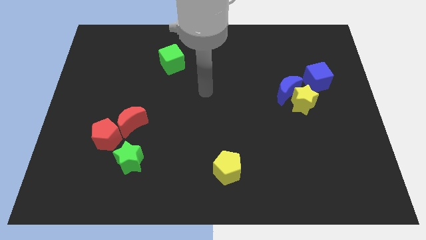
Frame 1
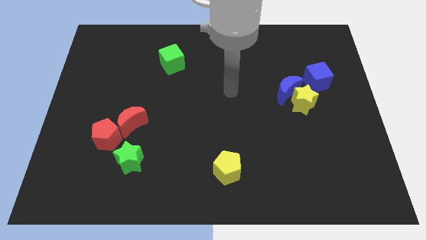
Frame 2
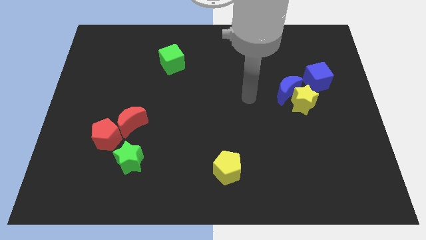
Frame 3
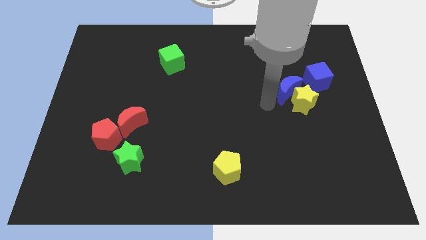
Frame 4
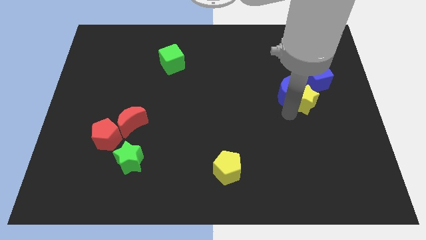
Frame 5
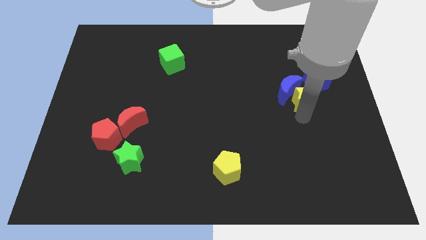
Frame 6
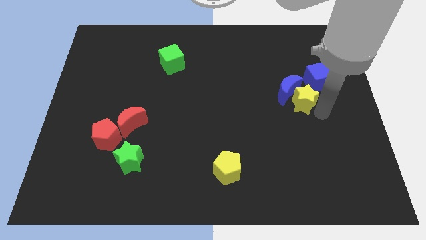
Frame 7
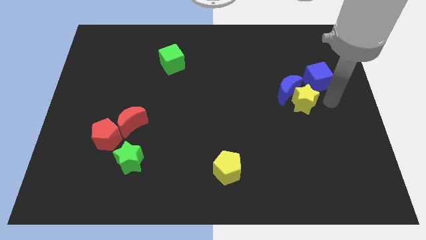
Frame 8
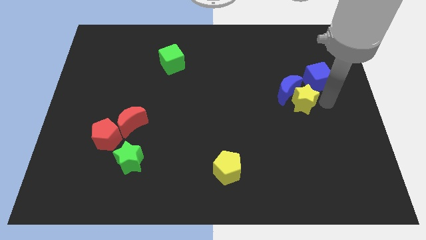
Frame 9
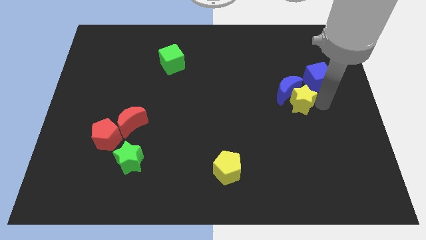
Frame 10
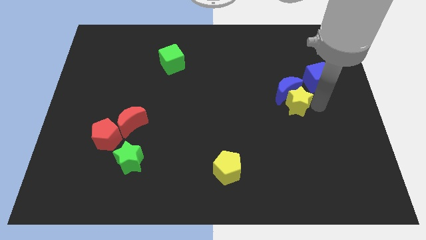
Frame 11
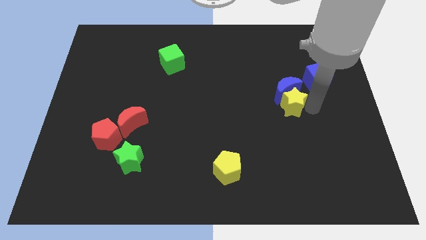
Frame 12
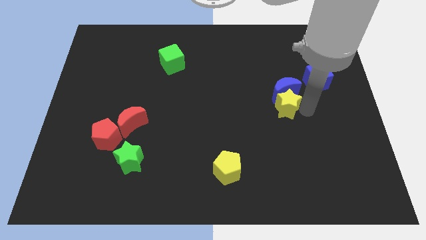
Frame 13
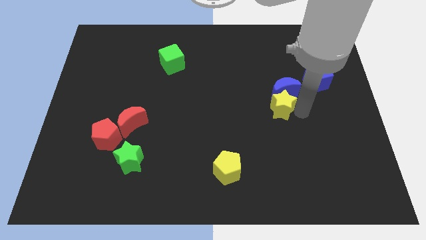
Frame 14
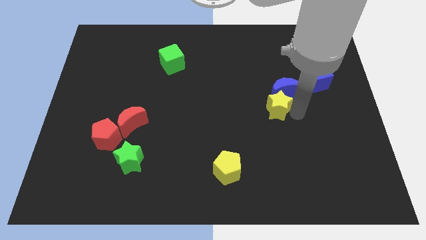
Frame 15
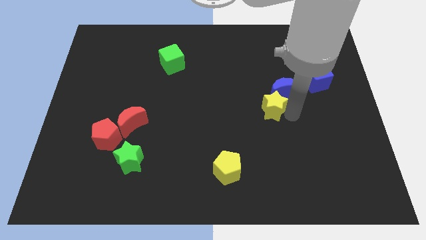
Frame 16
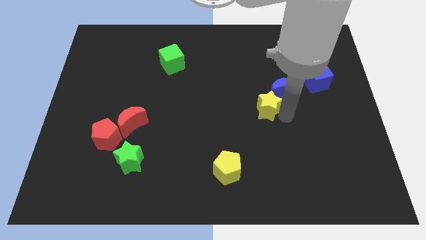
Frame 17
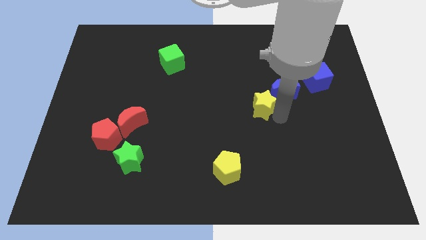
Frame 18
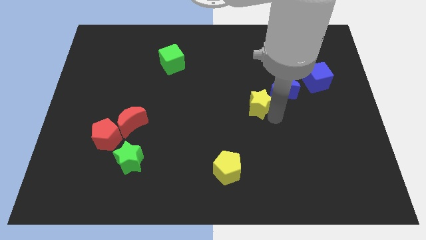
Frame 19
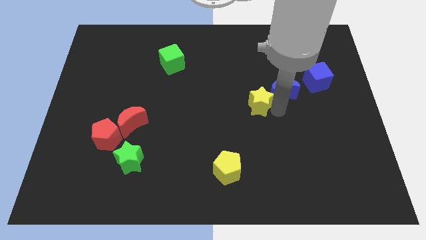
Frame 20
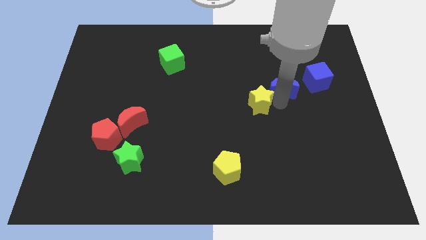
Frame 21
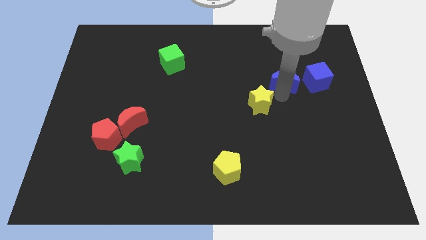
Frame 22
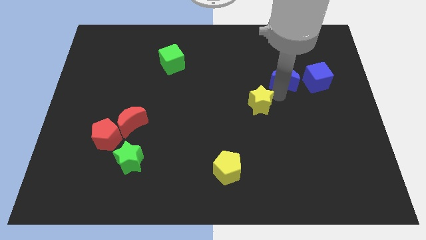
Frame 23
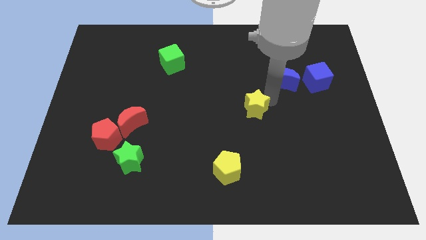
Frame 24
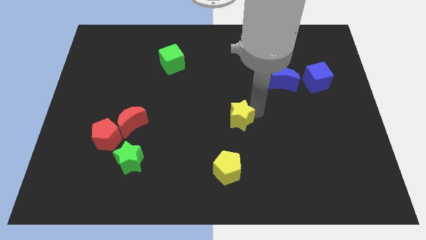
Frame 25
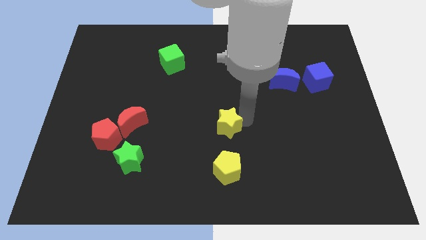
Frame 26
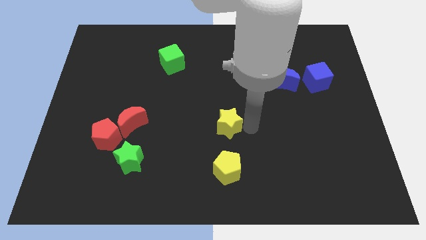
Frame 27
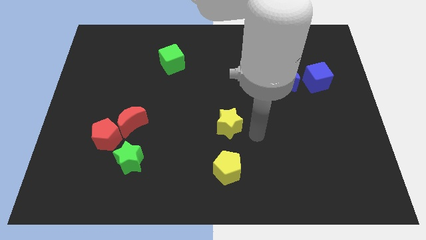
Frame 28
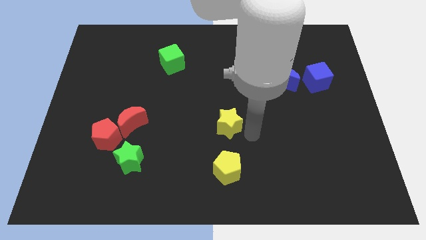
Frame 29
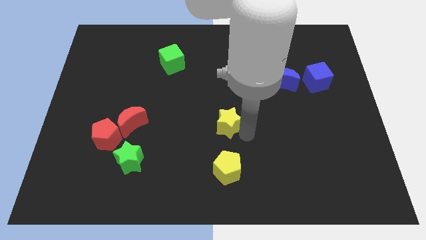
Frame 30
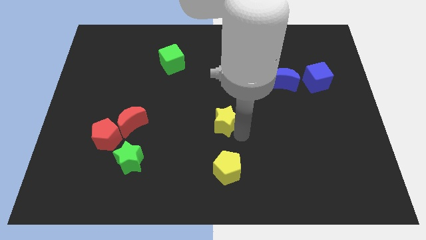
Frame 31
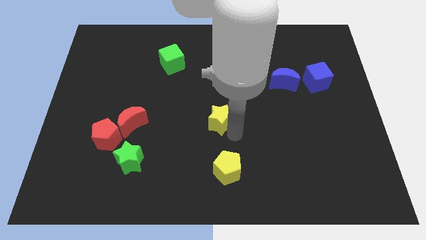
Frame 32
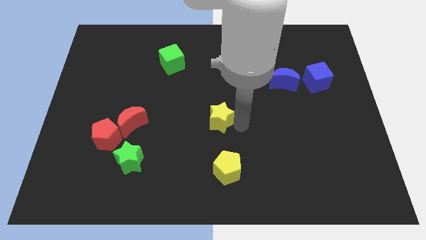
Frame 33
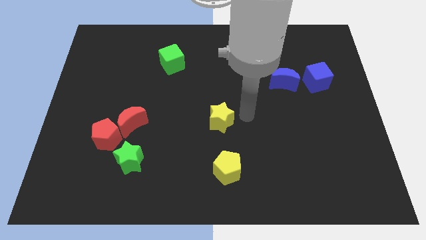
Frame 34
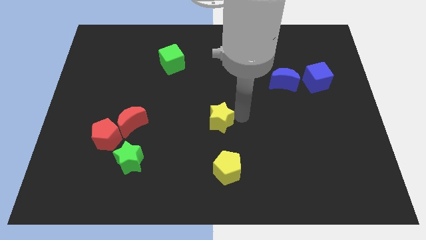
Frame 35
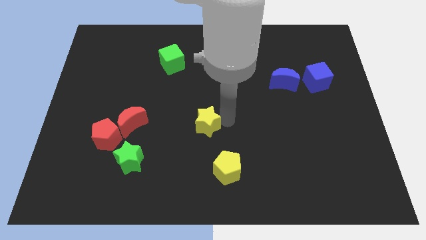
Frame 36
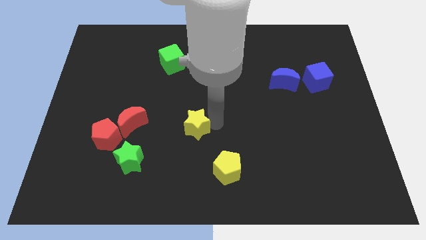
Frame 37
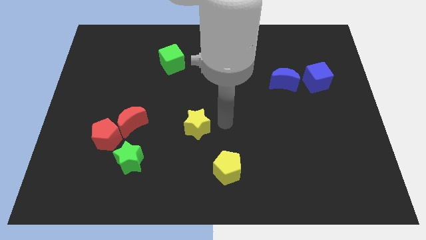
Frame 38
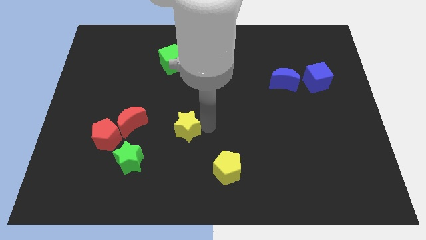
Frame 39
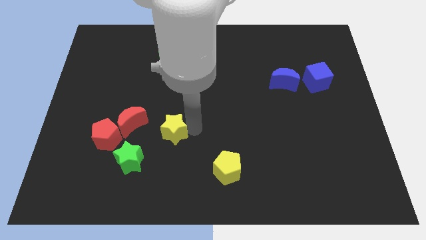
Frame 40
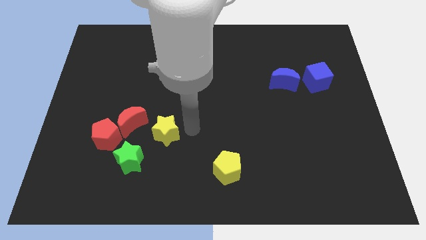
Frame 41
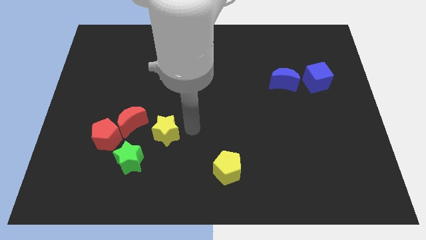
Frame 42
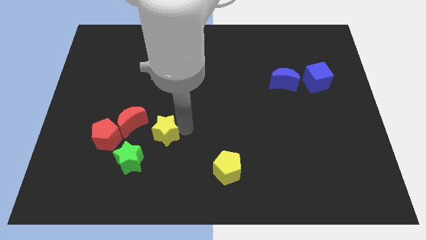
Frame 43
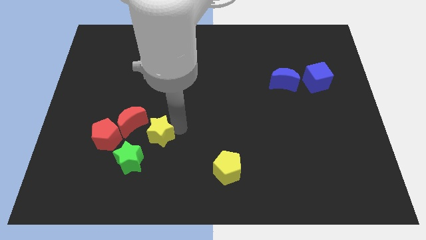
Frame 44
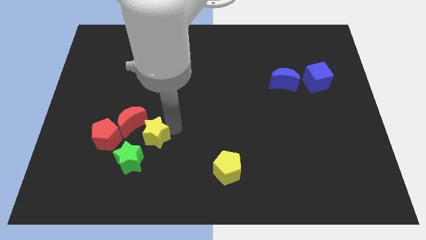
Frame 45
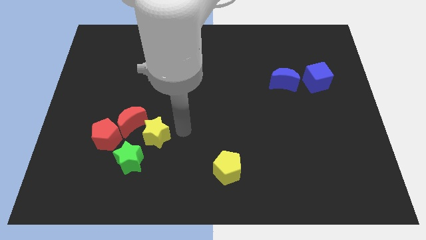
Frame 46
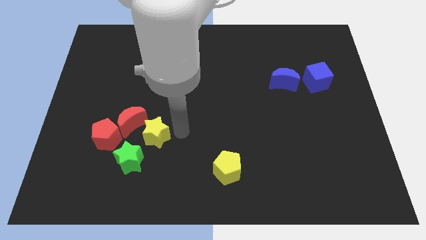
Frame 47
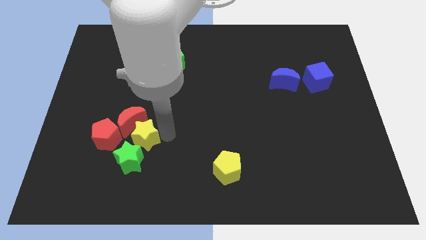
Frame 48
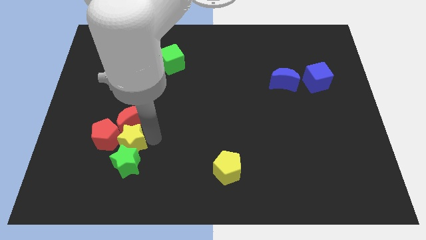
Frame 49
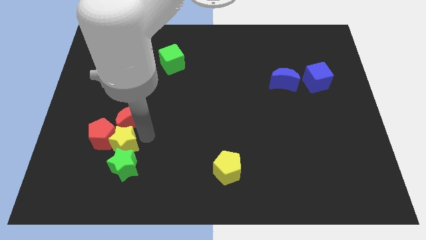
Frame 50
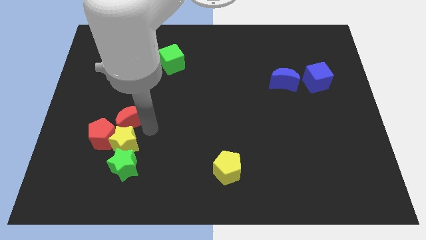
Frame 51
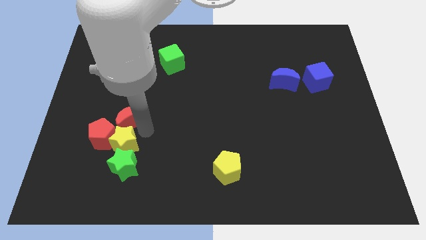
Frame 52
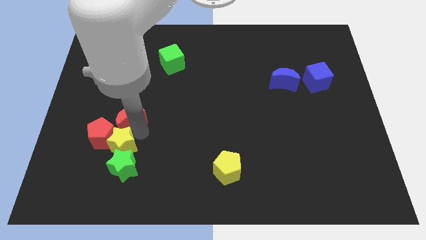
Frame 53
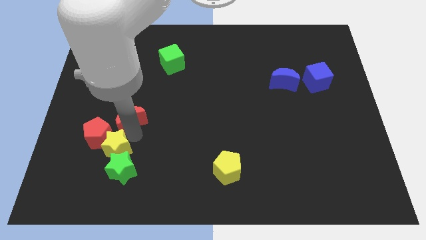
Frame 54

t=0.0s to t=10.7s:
put the yellow star to the bottom side of the red pentagon
